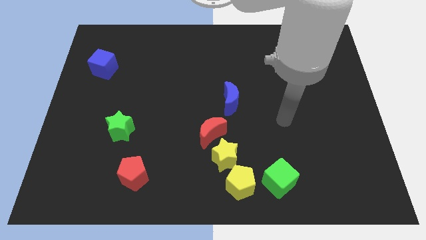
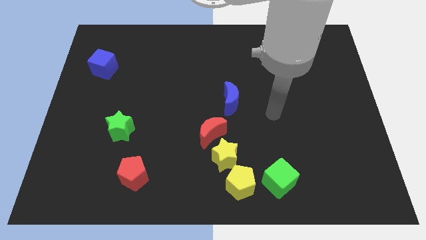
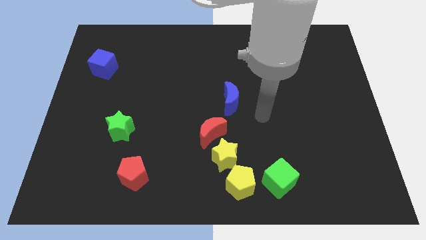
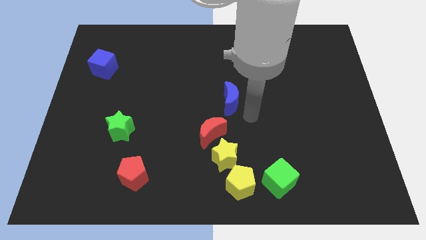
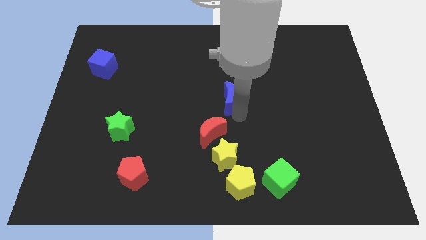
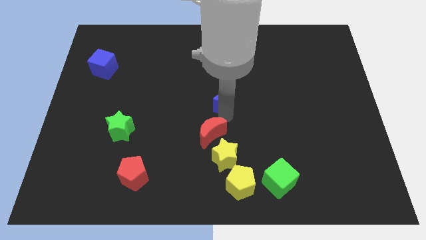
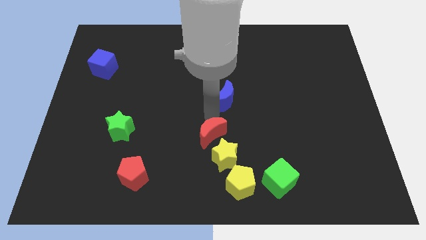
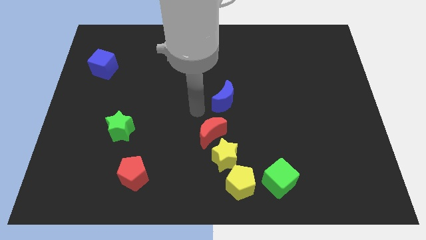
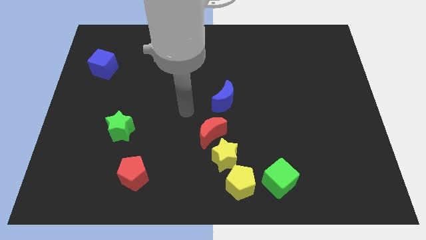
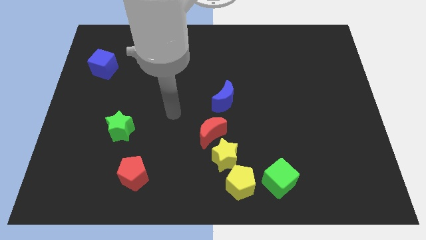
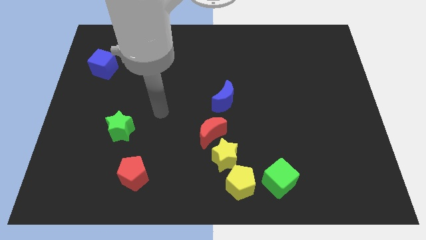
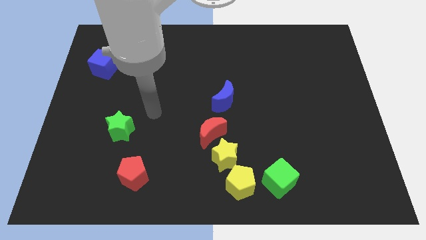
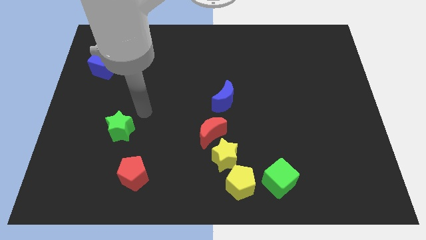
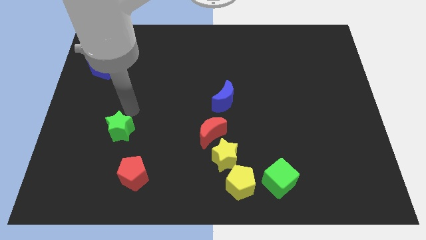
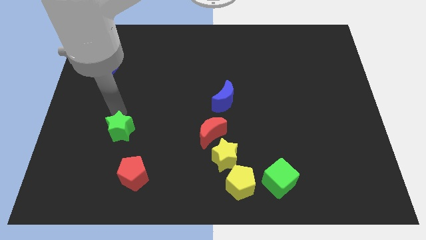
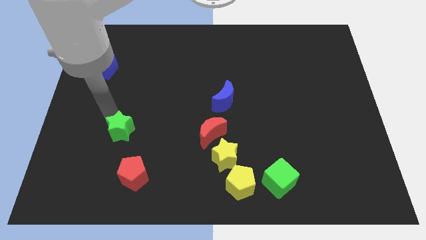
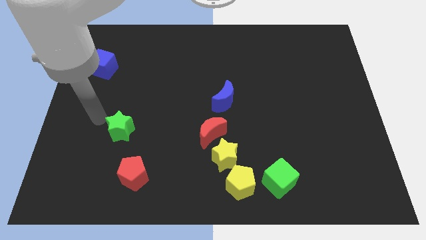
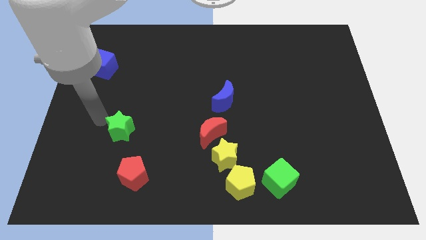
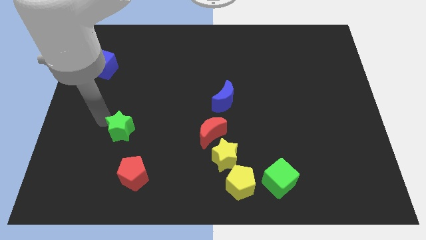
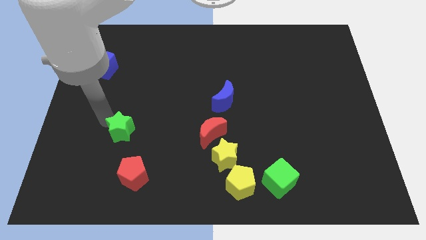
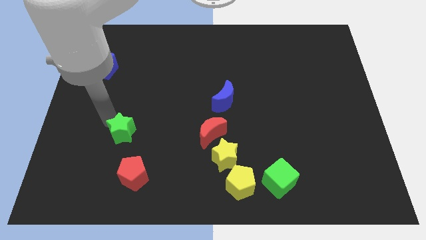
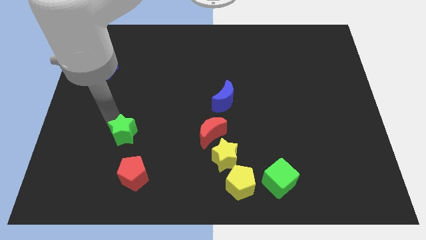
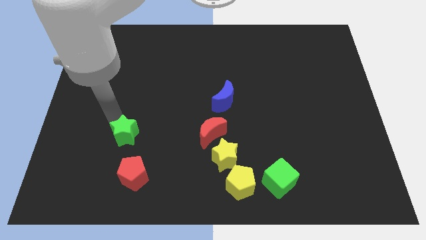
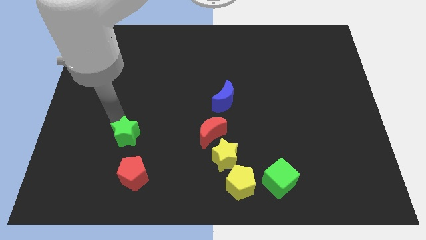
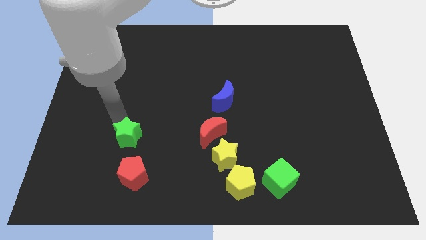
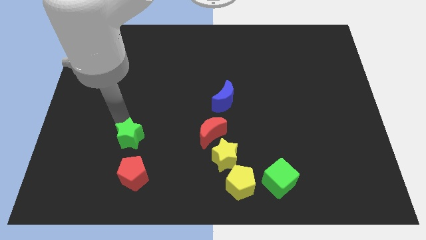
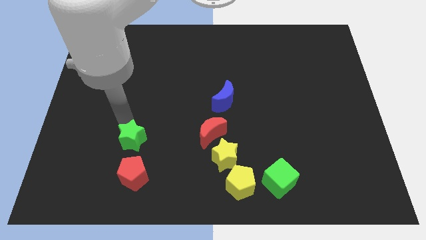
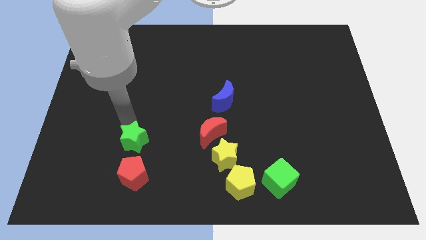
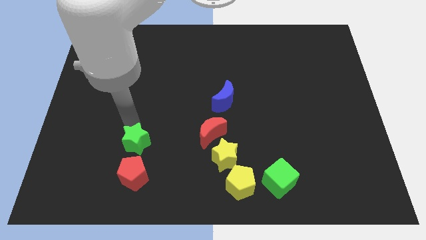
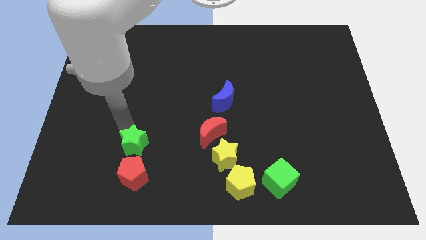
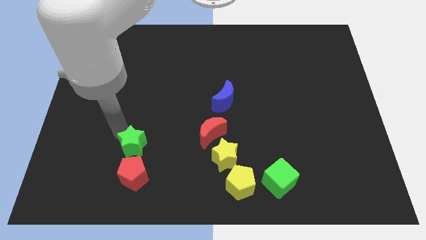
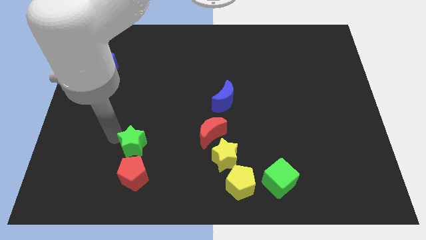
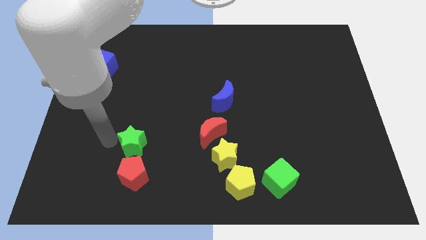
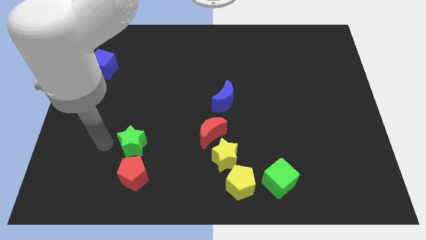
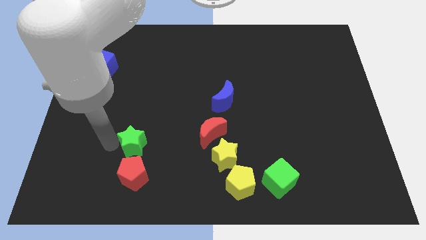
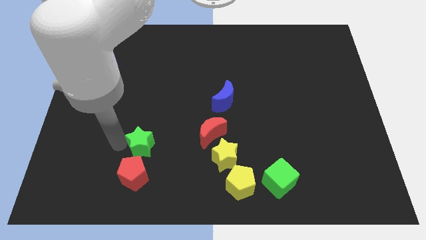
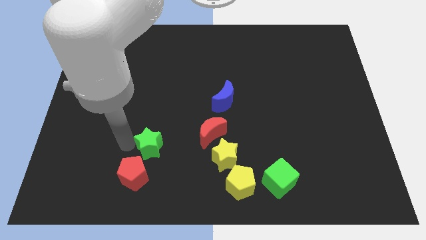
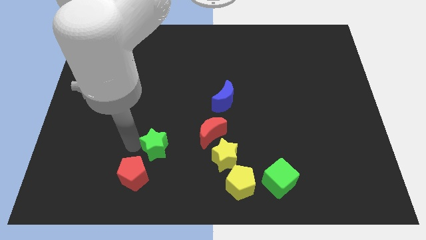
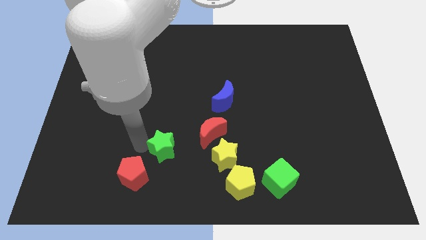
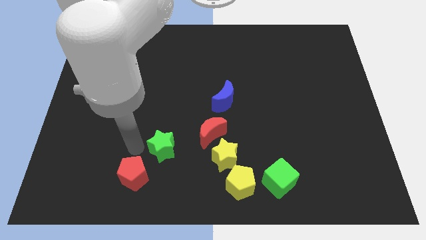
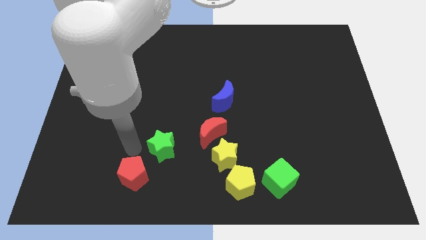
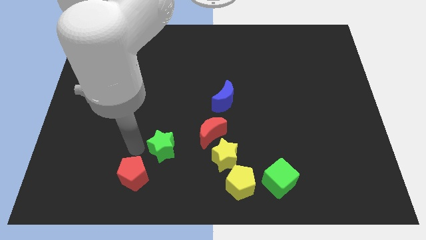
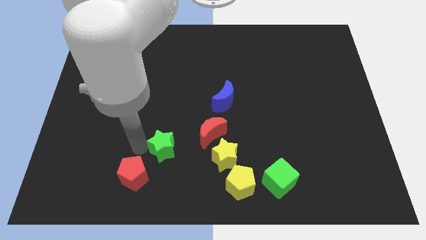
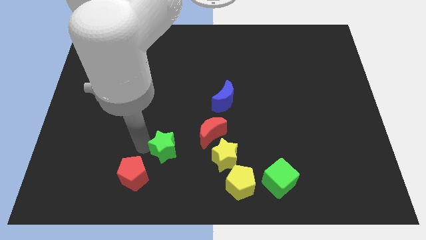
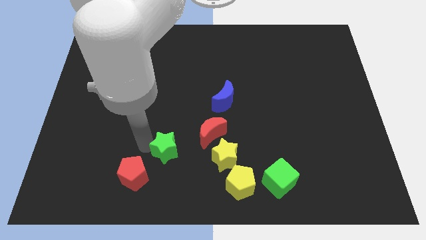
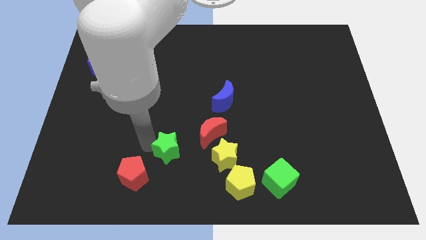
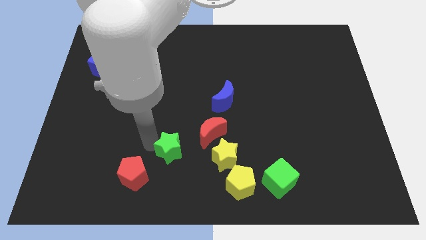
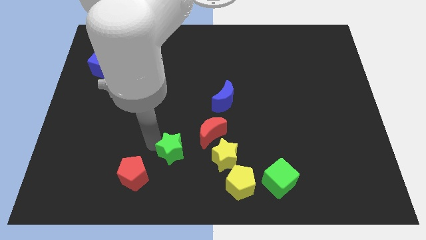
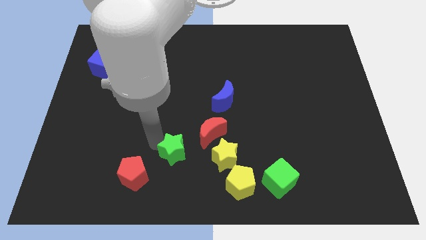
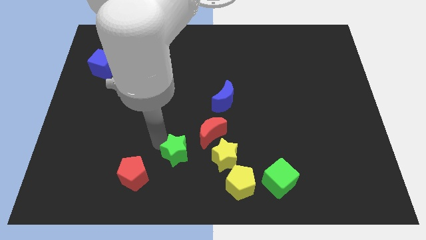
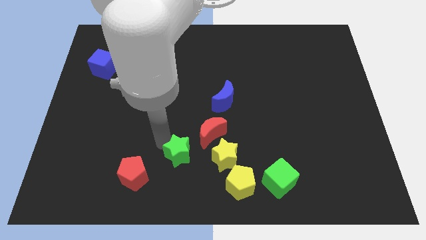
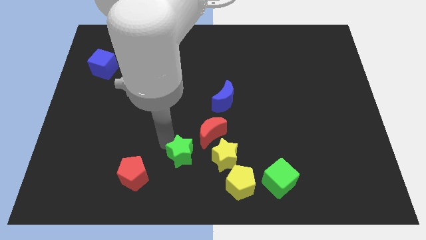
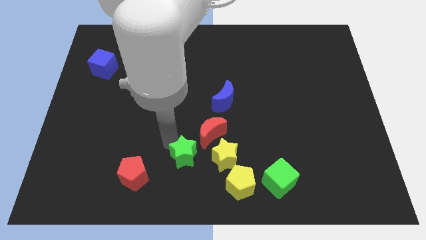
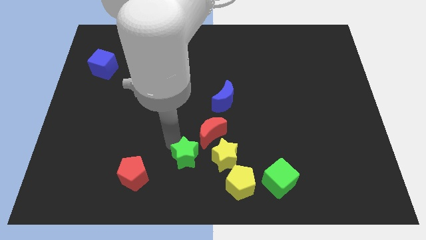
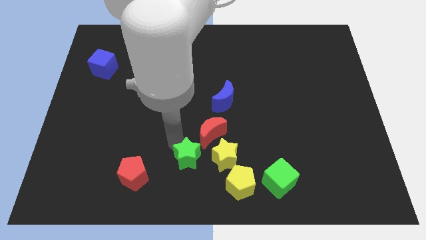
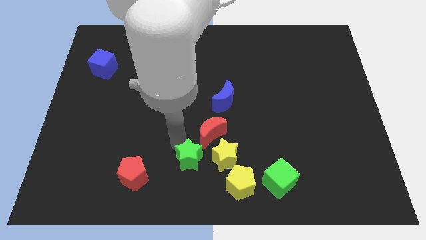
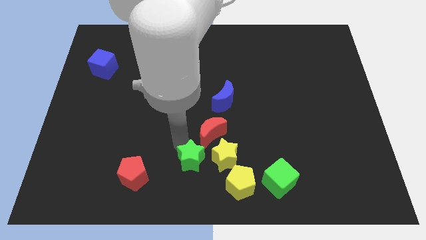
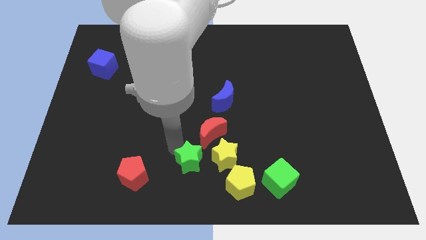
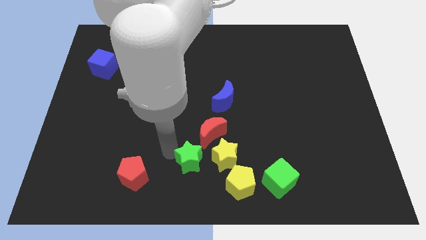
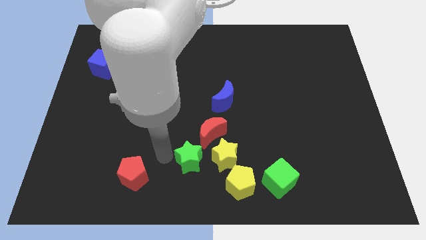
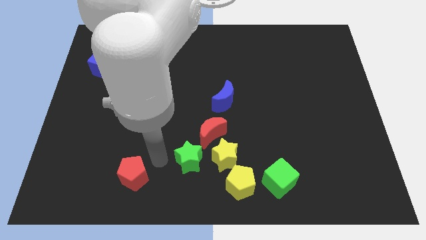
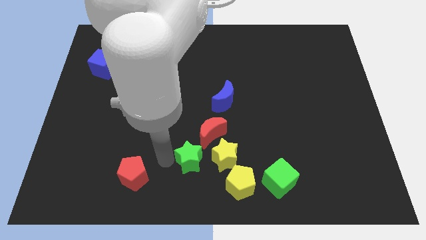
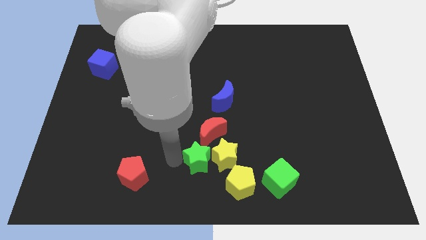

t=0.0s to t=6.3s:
slide the green star towards the yellow star

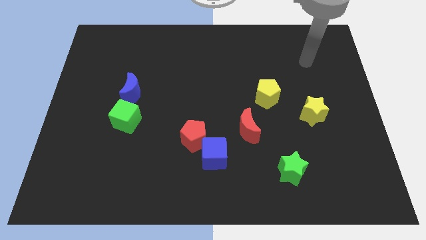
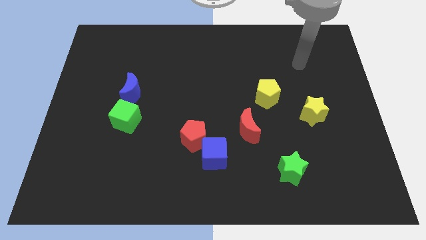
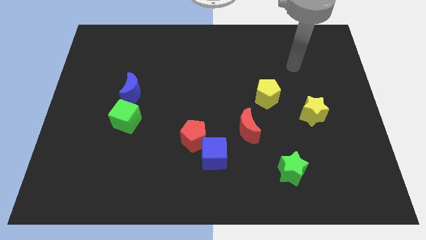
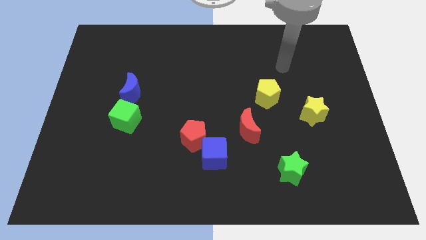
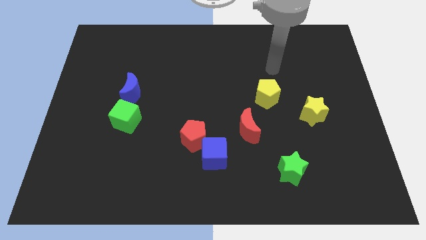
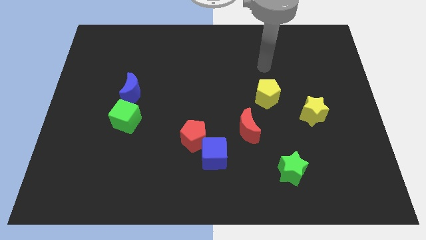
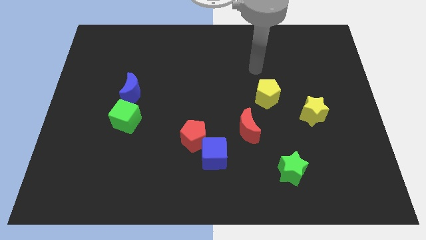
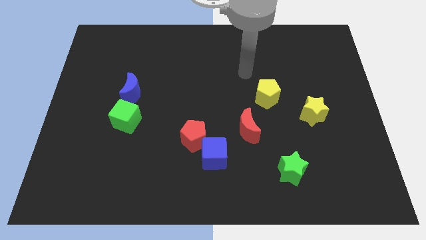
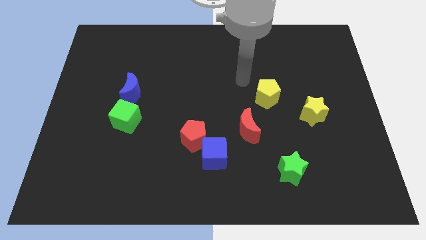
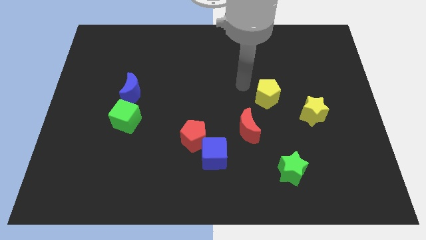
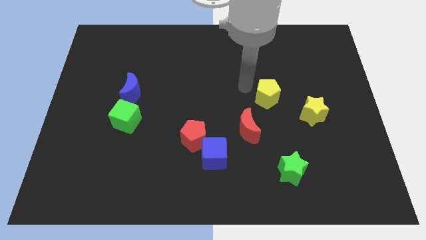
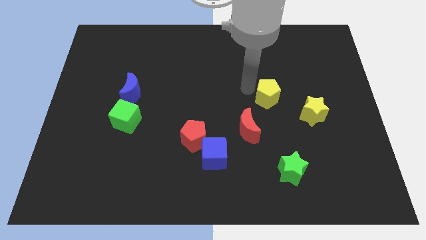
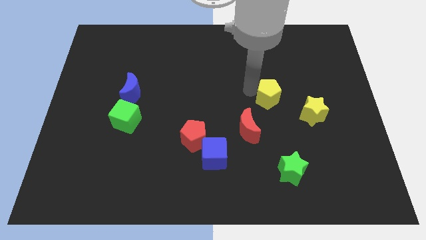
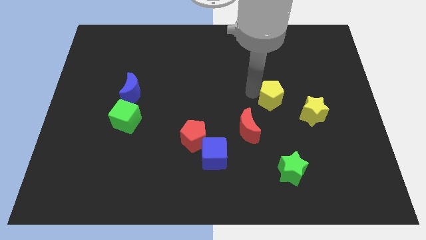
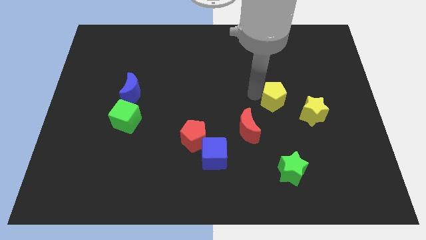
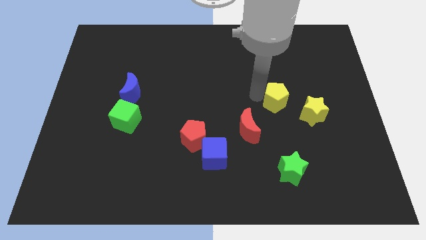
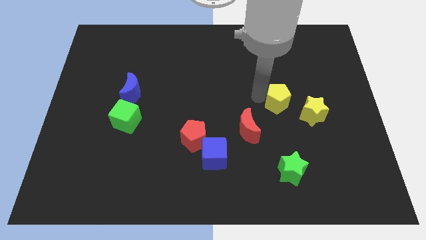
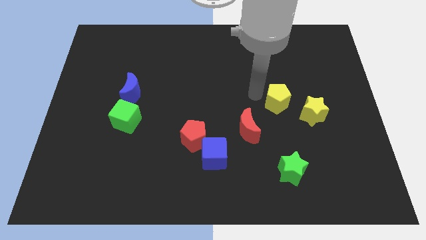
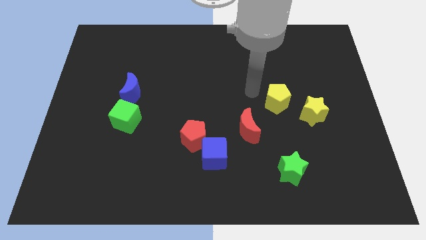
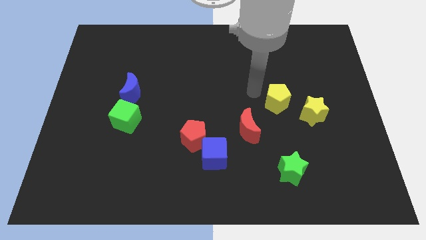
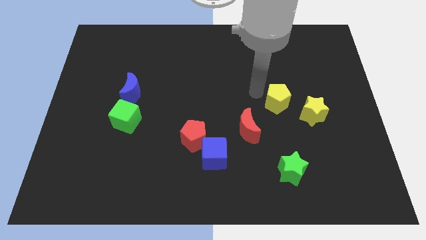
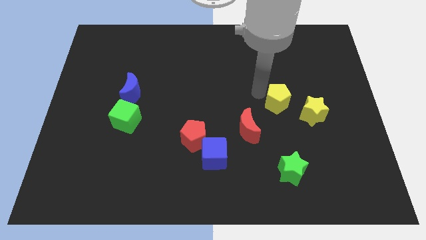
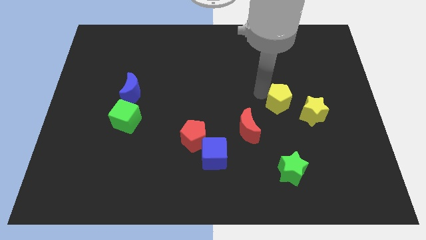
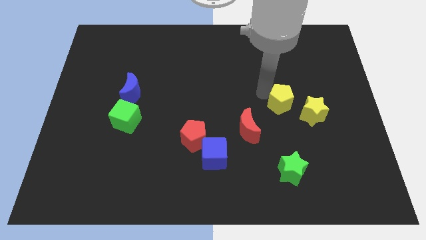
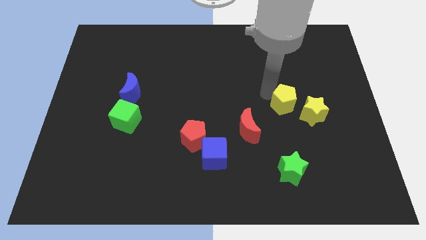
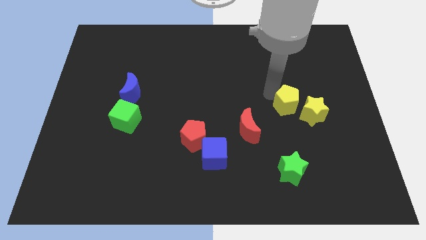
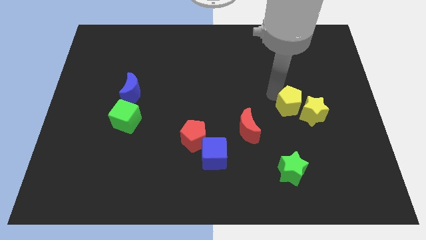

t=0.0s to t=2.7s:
slide the yellow pentagon towards the yellow star
